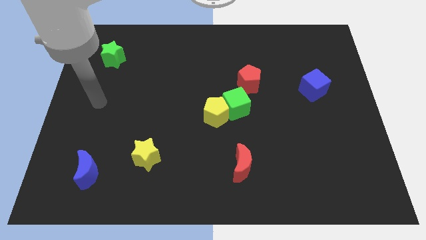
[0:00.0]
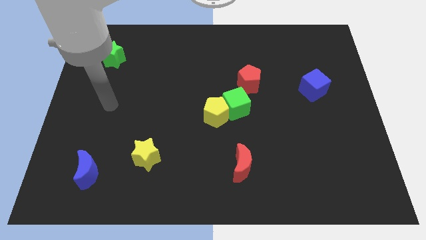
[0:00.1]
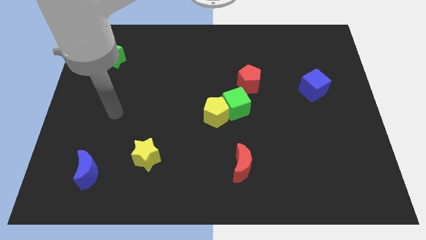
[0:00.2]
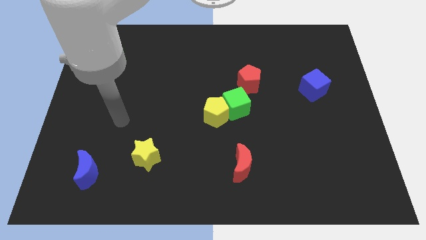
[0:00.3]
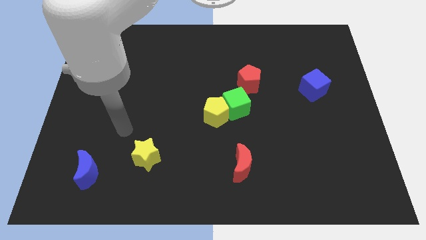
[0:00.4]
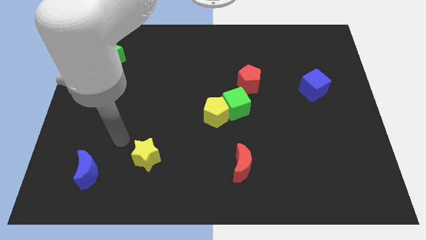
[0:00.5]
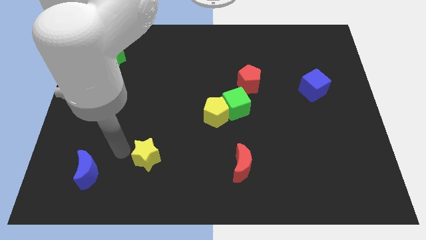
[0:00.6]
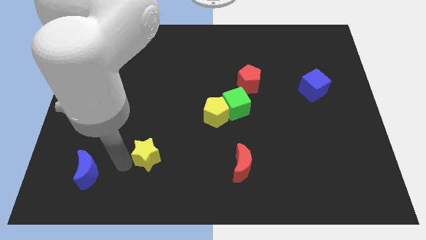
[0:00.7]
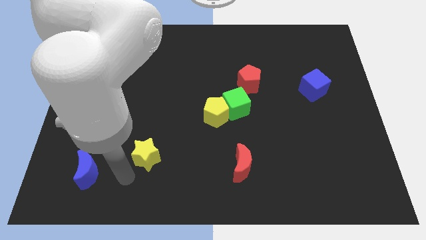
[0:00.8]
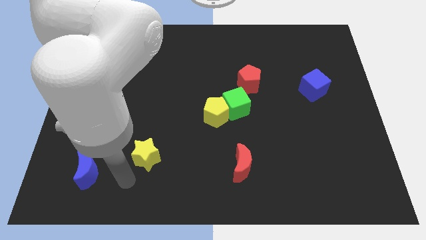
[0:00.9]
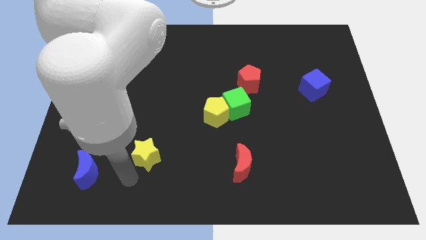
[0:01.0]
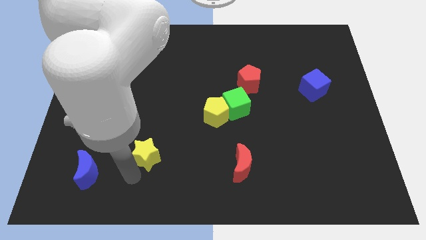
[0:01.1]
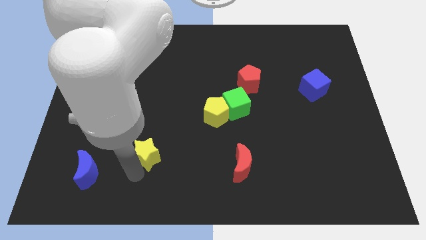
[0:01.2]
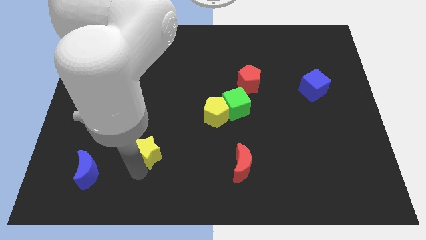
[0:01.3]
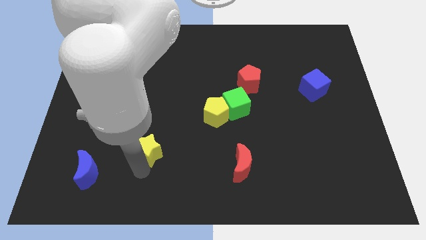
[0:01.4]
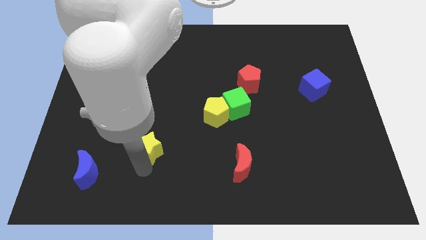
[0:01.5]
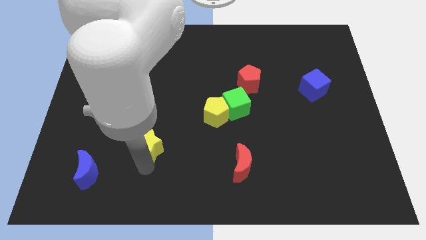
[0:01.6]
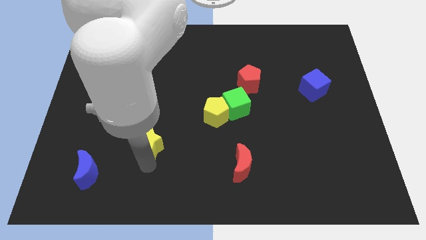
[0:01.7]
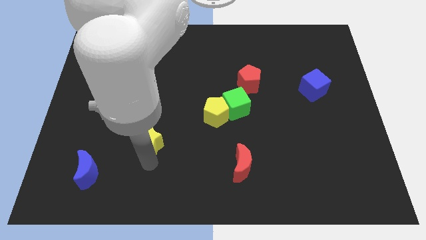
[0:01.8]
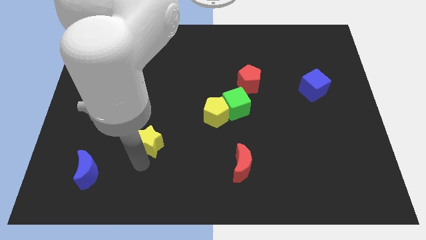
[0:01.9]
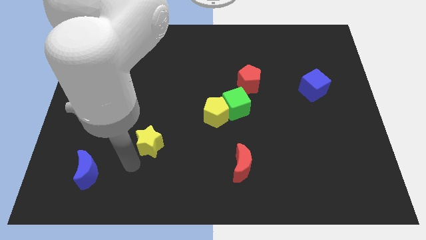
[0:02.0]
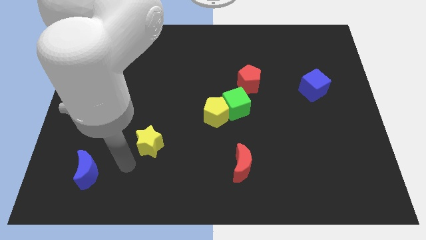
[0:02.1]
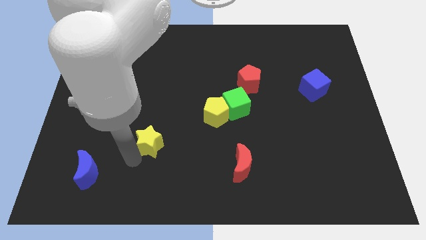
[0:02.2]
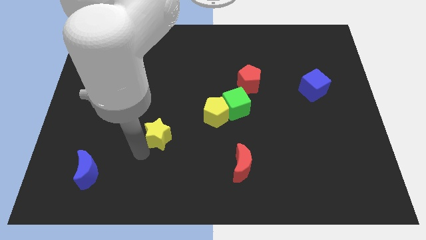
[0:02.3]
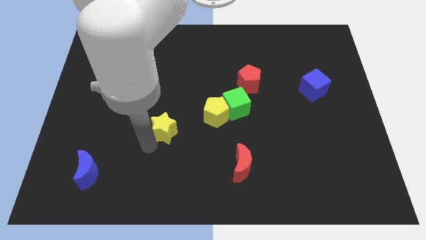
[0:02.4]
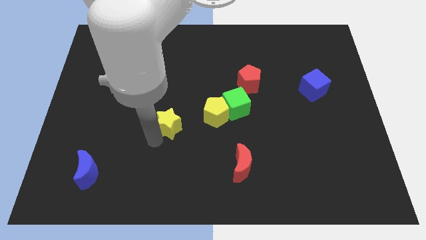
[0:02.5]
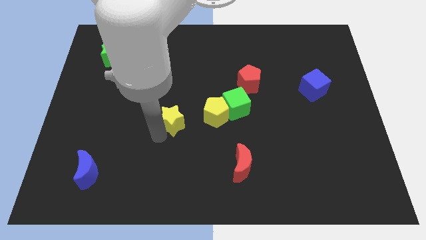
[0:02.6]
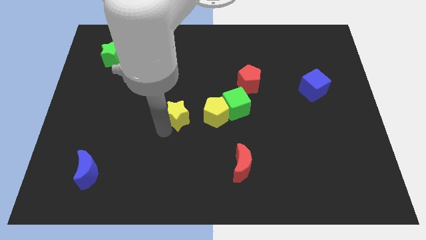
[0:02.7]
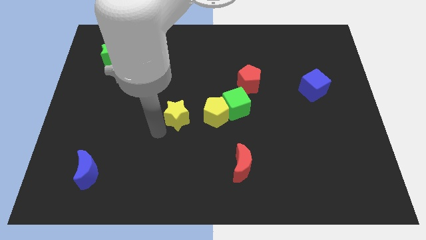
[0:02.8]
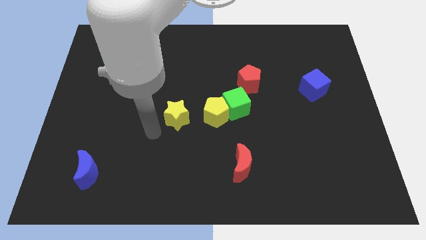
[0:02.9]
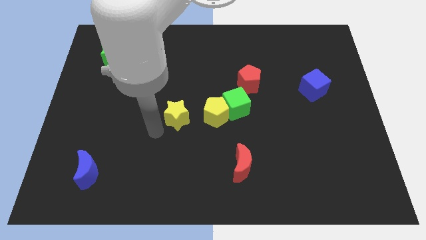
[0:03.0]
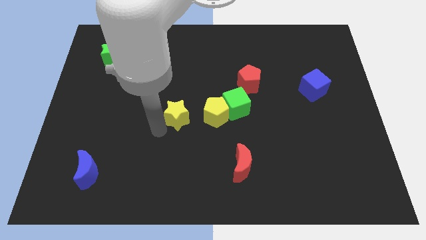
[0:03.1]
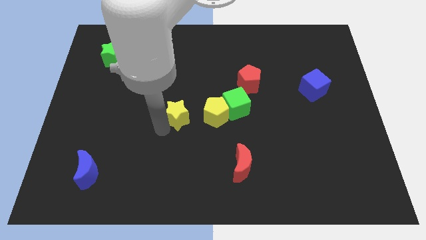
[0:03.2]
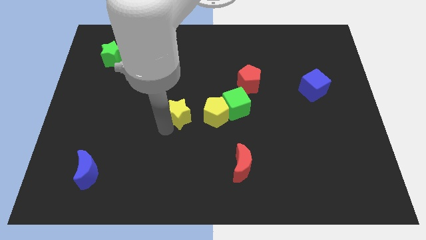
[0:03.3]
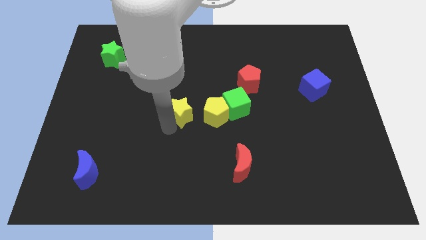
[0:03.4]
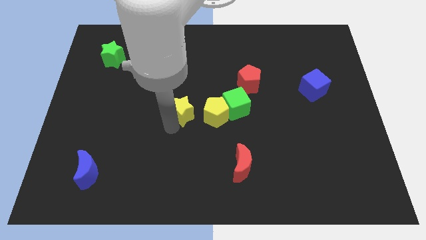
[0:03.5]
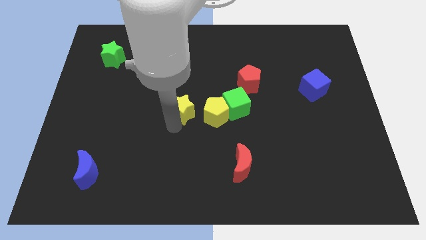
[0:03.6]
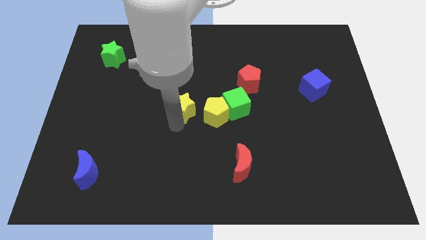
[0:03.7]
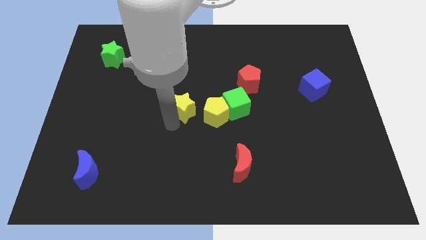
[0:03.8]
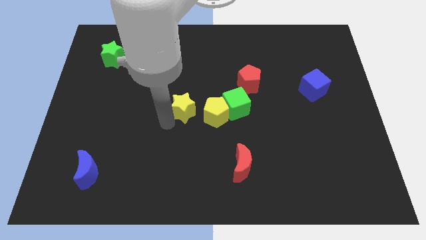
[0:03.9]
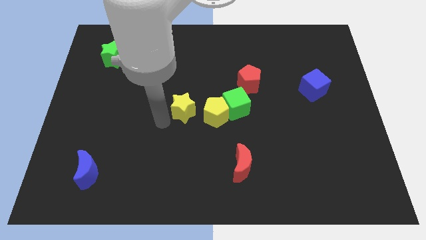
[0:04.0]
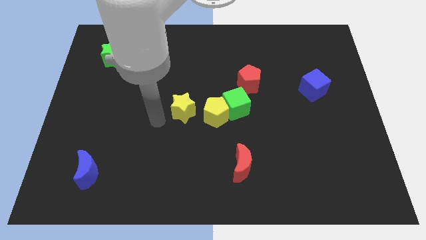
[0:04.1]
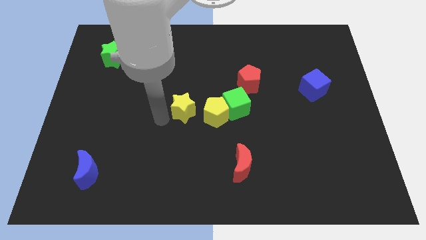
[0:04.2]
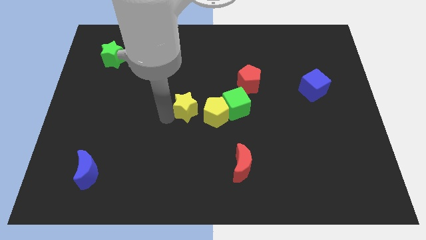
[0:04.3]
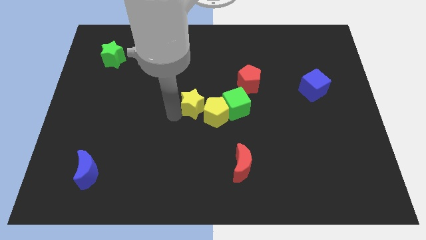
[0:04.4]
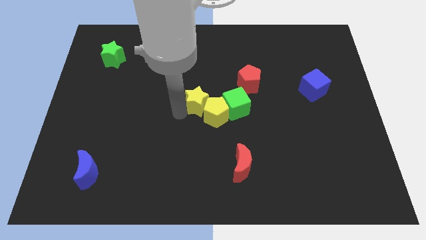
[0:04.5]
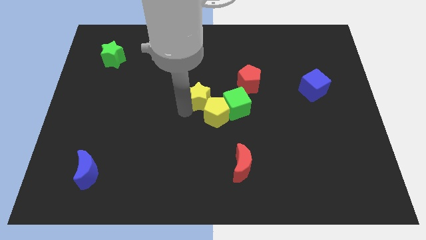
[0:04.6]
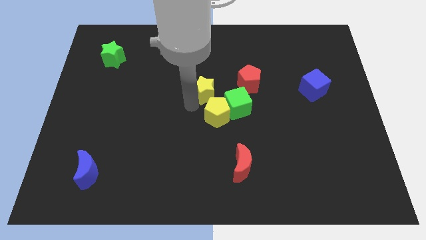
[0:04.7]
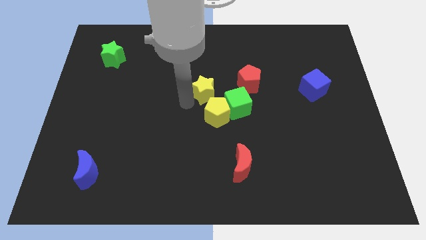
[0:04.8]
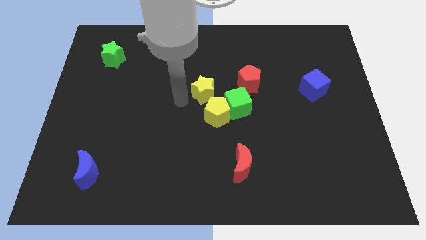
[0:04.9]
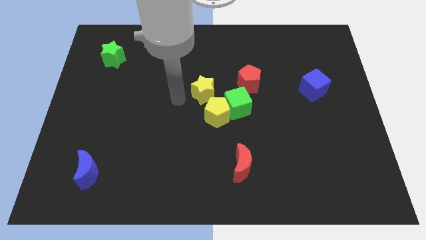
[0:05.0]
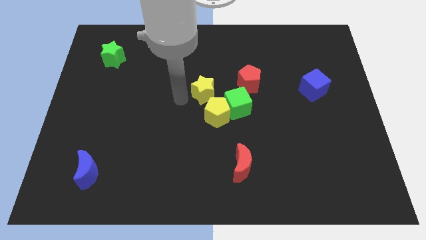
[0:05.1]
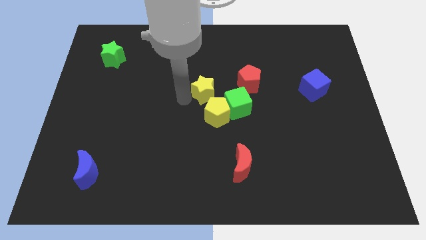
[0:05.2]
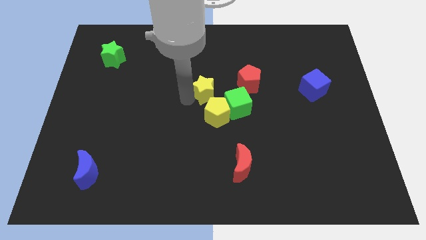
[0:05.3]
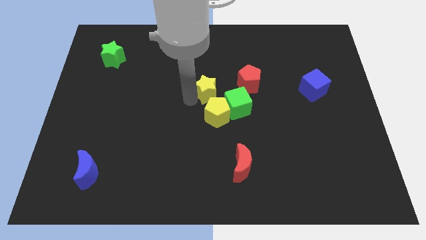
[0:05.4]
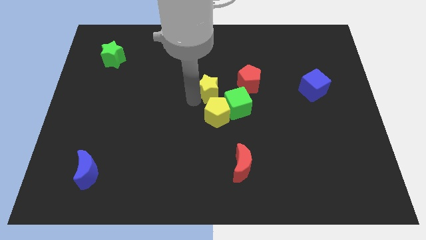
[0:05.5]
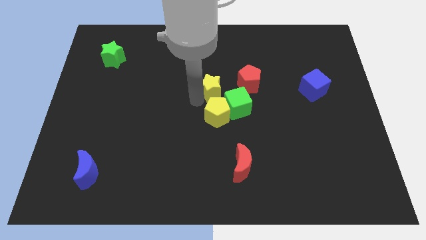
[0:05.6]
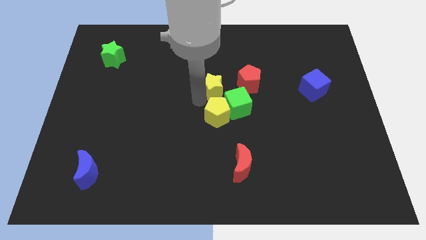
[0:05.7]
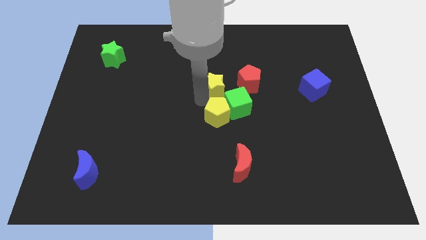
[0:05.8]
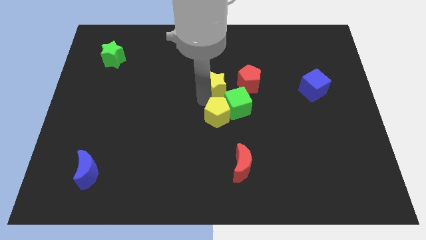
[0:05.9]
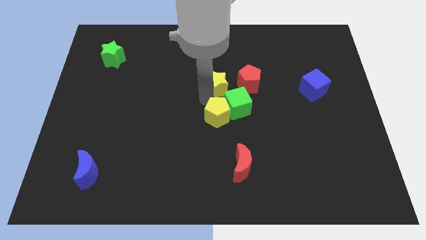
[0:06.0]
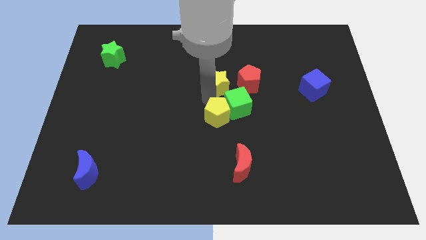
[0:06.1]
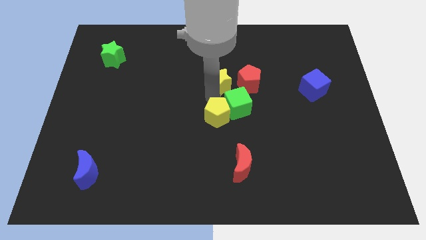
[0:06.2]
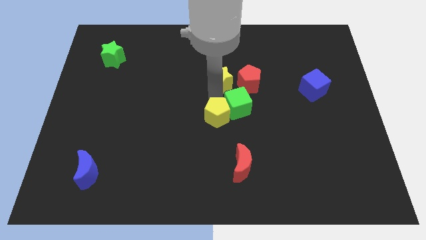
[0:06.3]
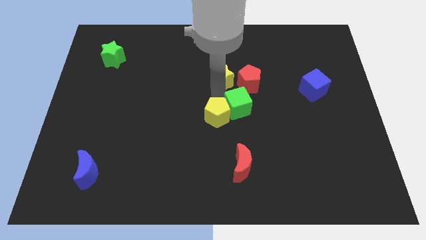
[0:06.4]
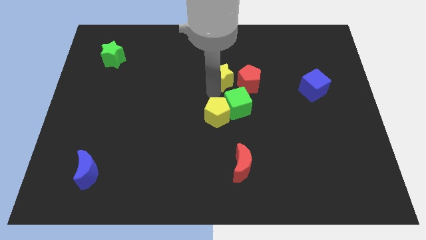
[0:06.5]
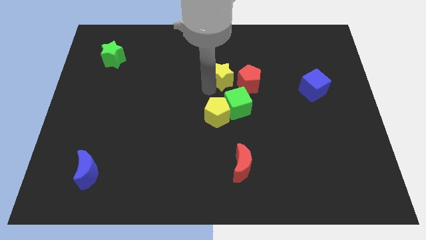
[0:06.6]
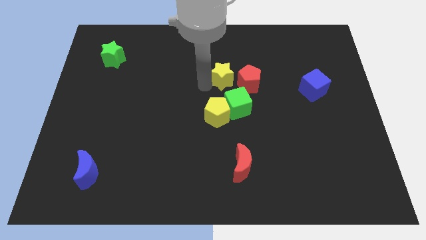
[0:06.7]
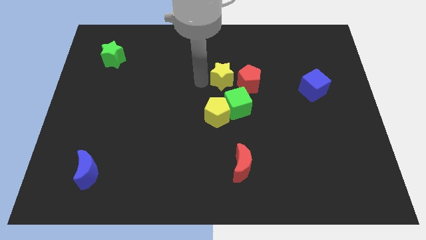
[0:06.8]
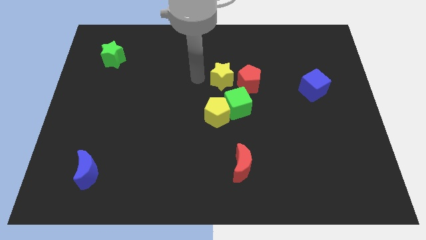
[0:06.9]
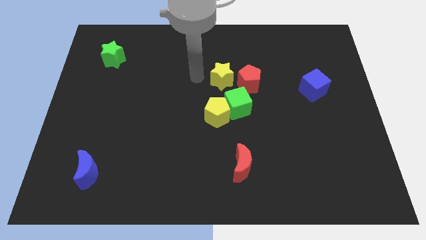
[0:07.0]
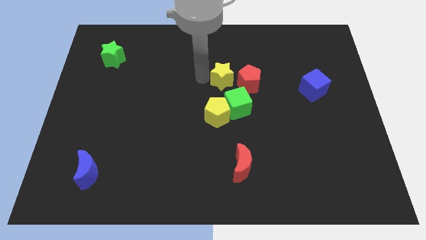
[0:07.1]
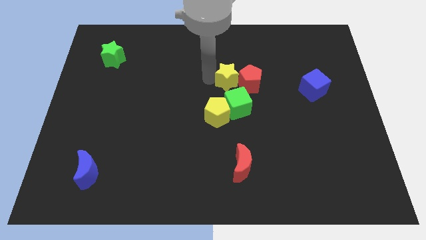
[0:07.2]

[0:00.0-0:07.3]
slide the yellow star to the red pentagon
